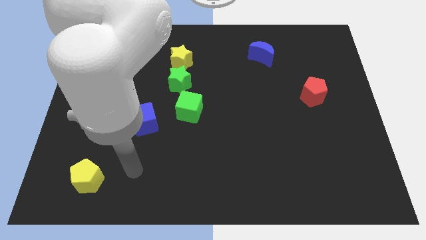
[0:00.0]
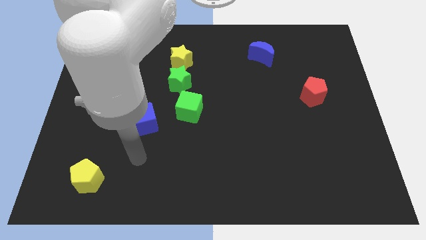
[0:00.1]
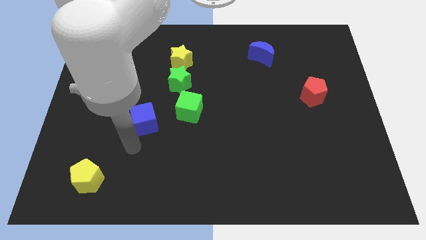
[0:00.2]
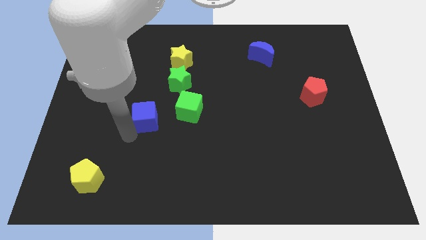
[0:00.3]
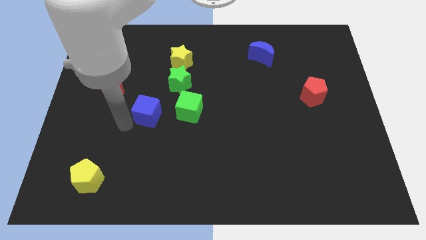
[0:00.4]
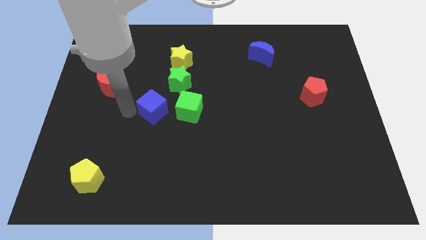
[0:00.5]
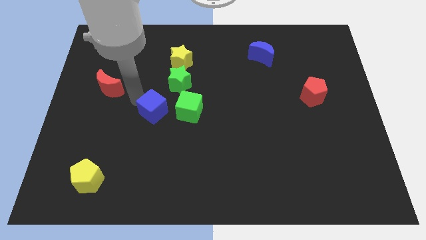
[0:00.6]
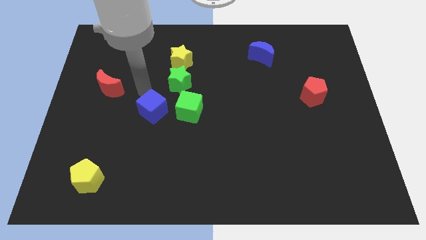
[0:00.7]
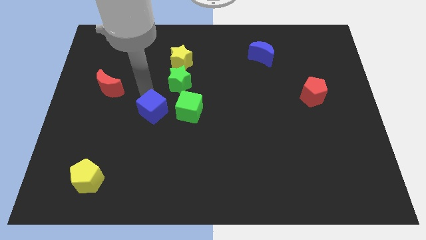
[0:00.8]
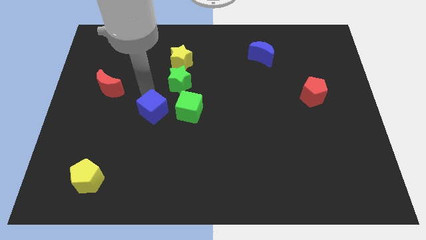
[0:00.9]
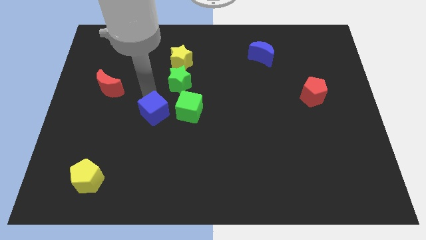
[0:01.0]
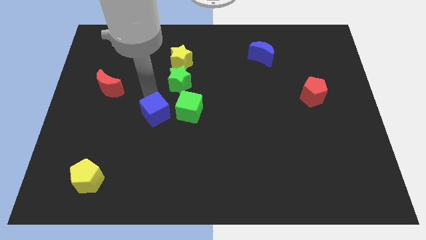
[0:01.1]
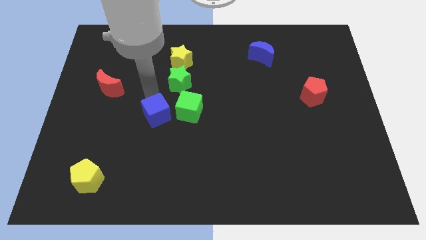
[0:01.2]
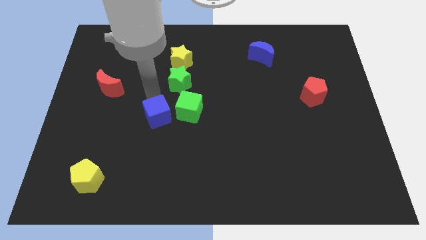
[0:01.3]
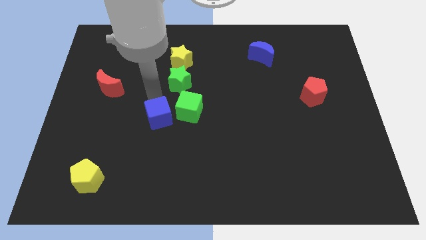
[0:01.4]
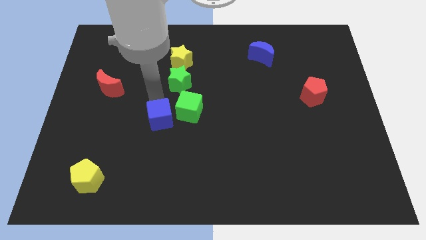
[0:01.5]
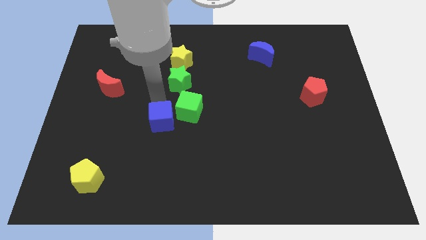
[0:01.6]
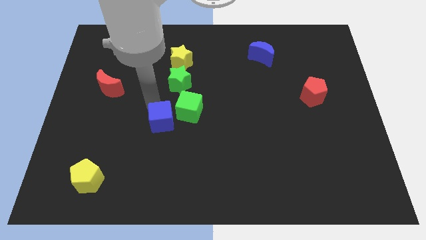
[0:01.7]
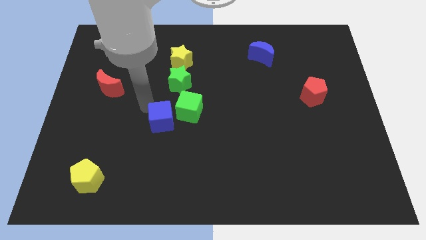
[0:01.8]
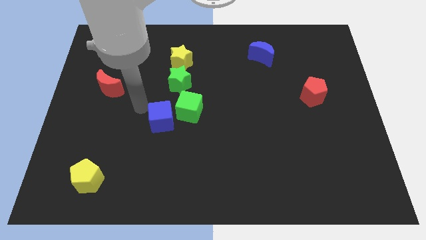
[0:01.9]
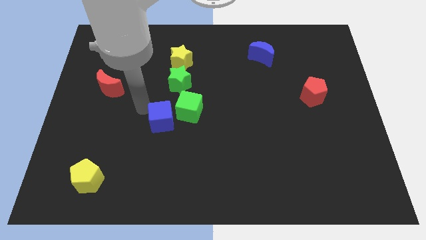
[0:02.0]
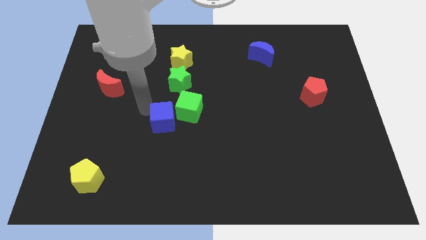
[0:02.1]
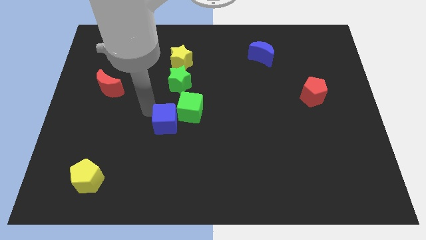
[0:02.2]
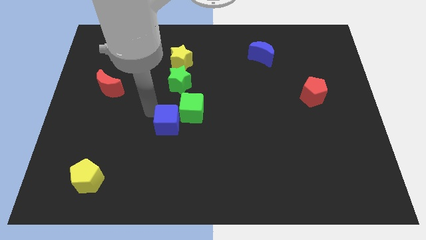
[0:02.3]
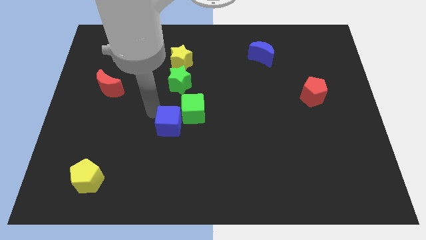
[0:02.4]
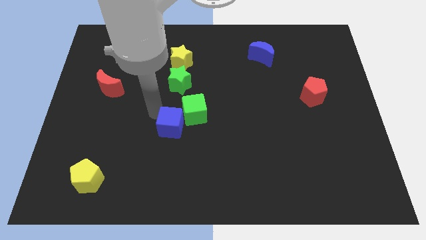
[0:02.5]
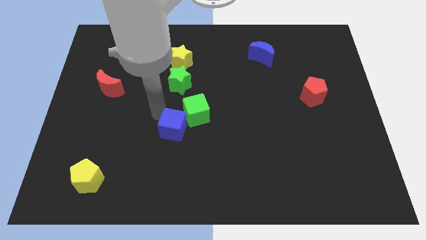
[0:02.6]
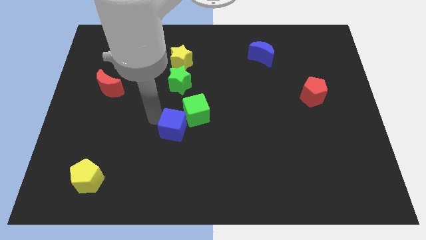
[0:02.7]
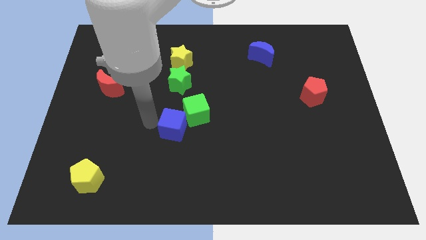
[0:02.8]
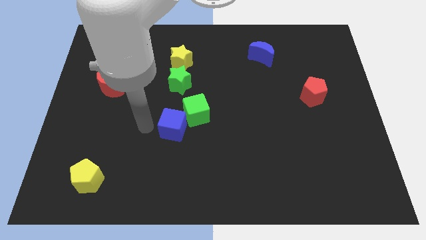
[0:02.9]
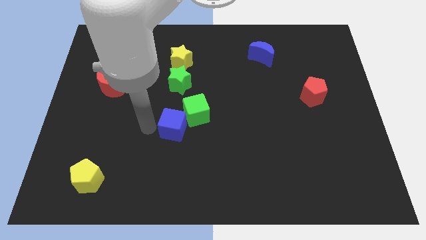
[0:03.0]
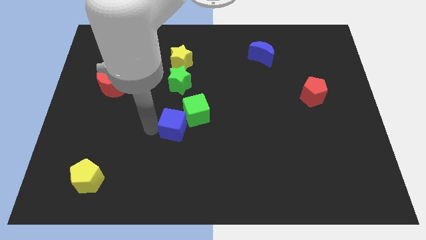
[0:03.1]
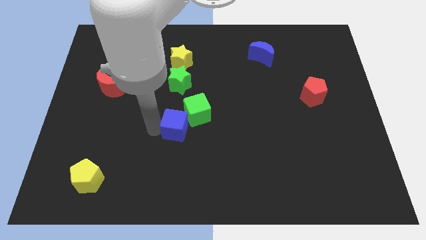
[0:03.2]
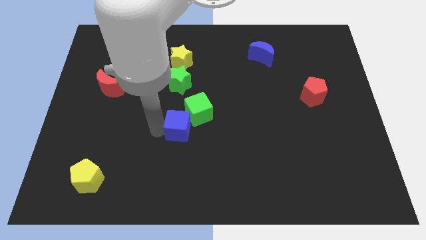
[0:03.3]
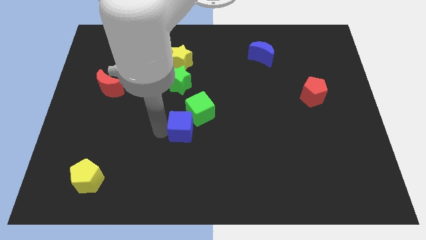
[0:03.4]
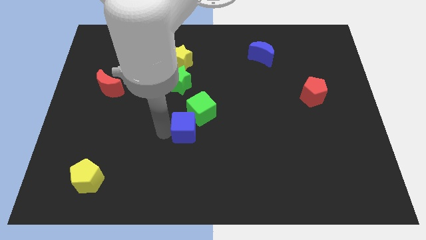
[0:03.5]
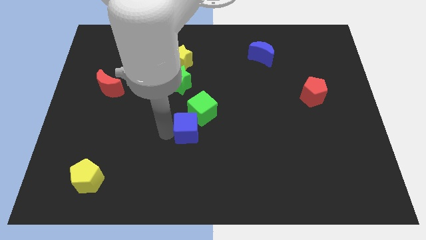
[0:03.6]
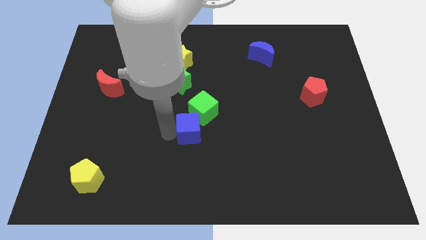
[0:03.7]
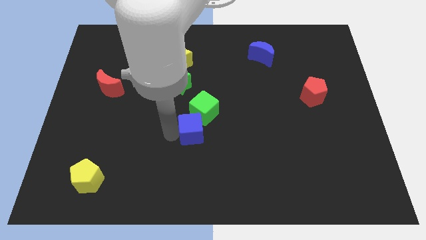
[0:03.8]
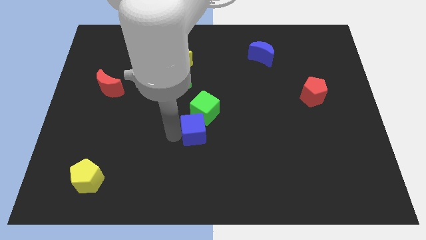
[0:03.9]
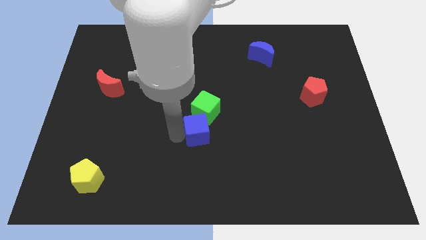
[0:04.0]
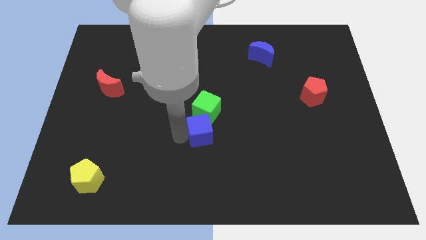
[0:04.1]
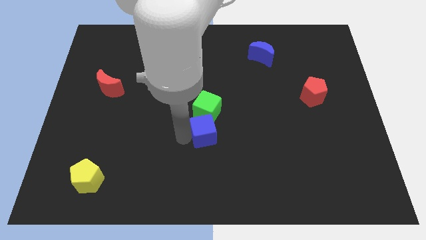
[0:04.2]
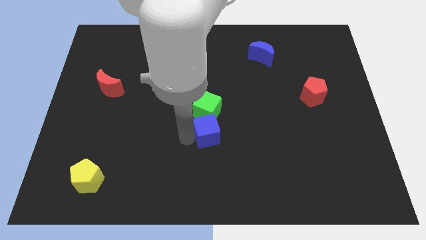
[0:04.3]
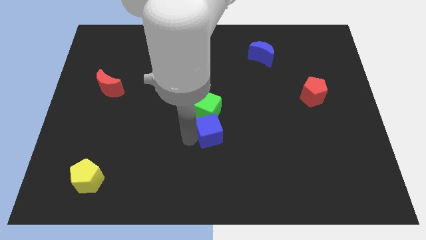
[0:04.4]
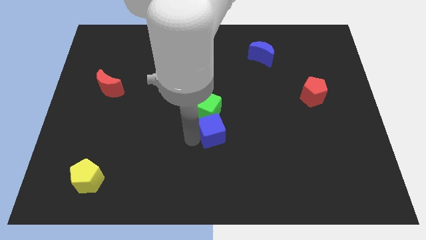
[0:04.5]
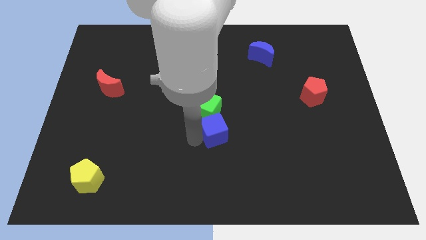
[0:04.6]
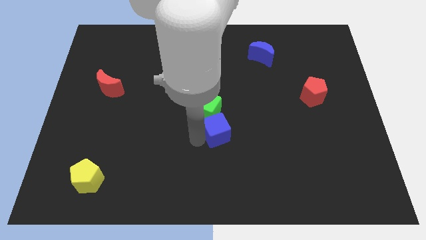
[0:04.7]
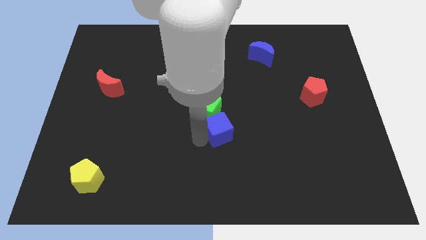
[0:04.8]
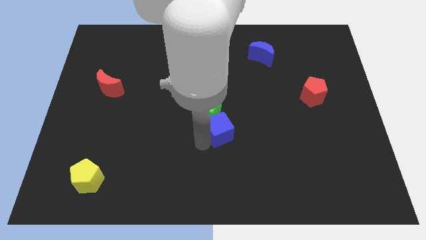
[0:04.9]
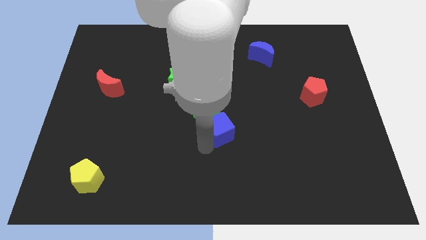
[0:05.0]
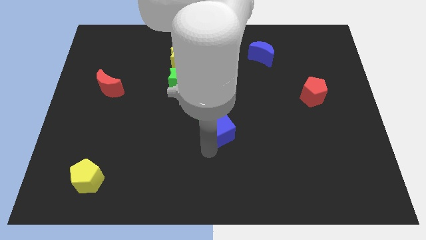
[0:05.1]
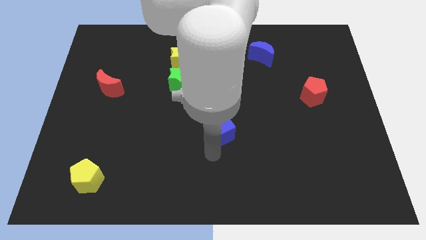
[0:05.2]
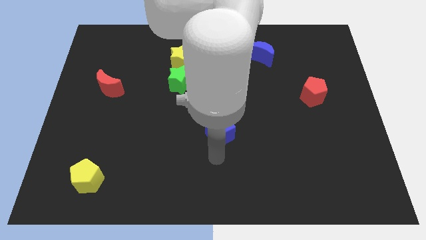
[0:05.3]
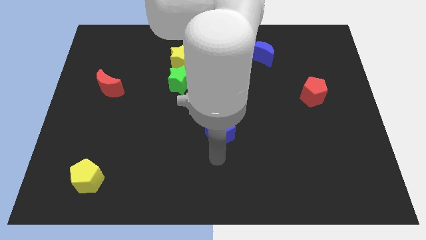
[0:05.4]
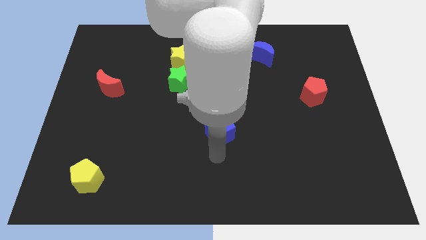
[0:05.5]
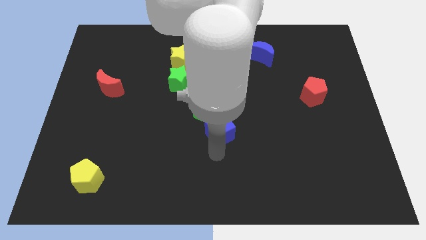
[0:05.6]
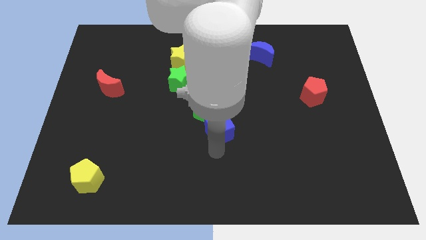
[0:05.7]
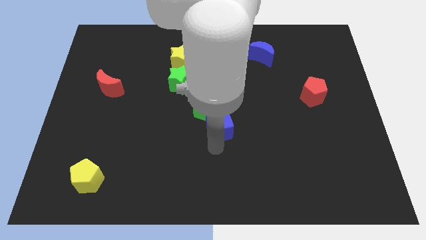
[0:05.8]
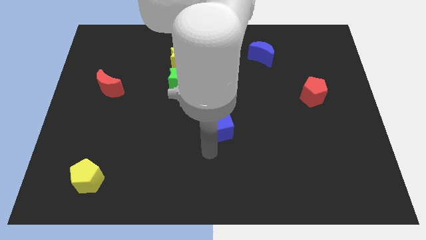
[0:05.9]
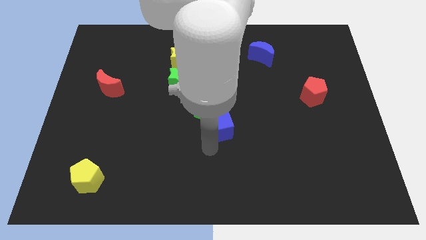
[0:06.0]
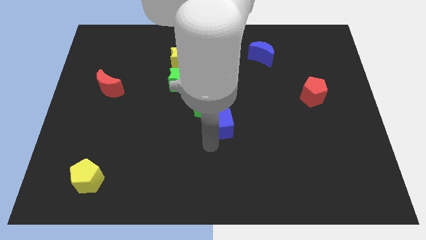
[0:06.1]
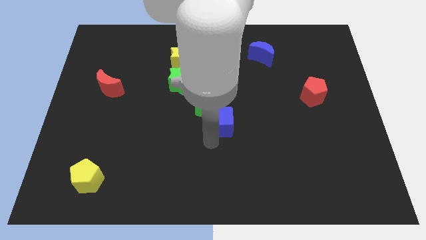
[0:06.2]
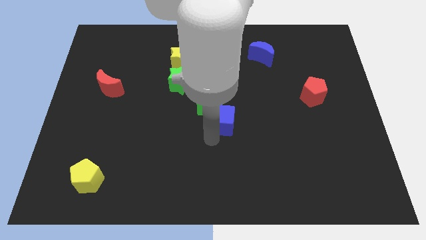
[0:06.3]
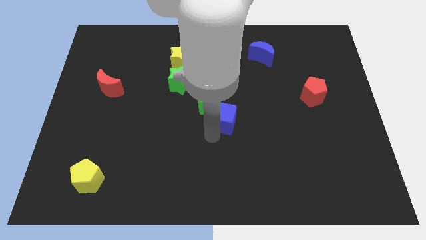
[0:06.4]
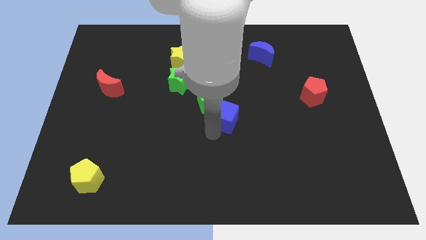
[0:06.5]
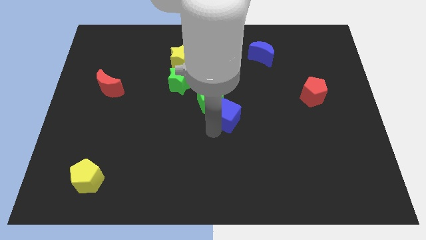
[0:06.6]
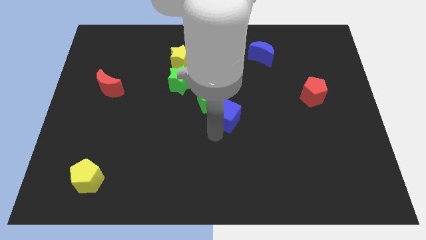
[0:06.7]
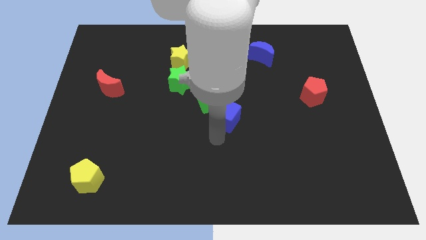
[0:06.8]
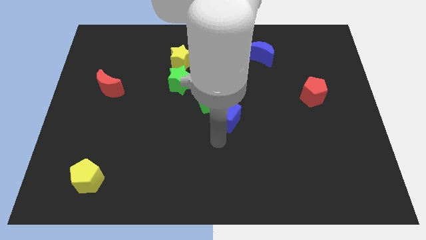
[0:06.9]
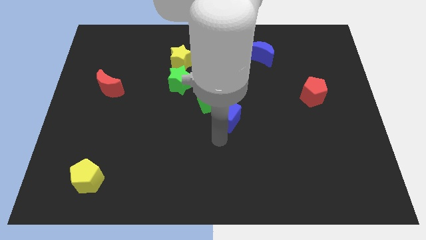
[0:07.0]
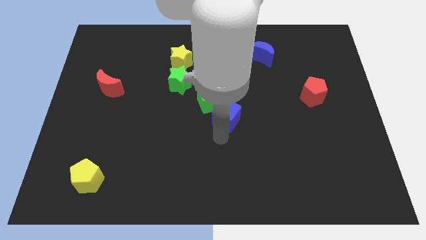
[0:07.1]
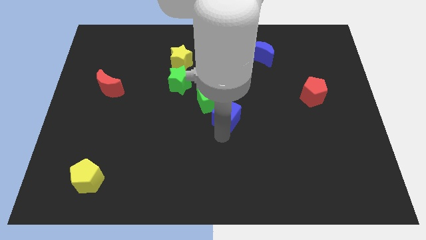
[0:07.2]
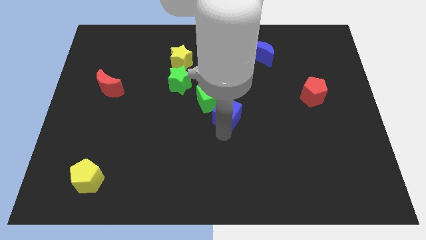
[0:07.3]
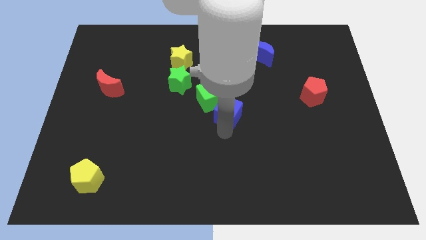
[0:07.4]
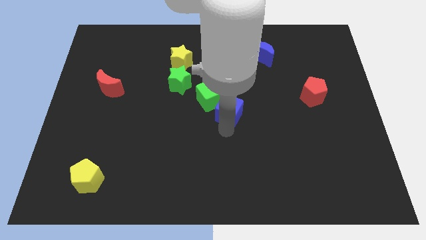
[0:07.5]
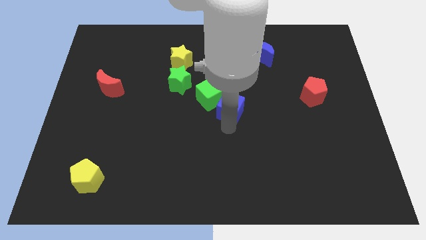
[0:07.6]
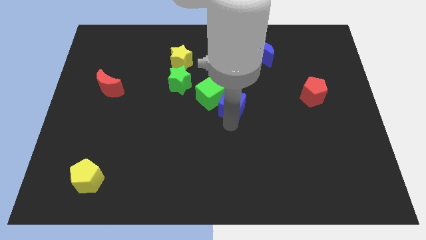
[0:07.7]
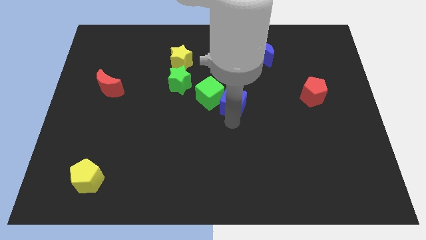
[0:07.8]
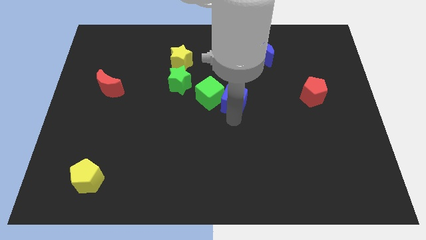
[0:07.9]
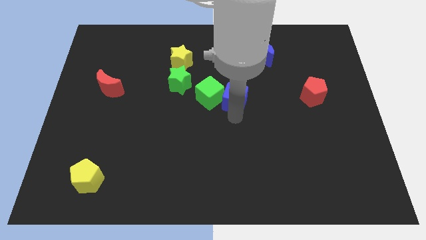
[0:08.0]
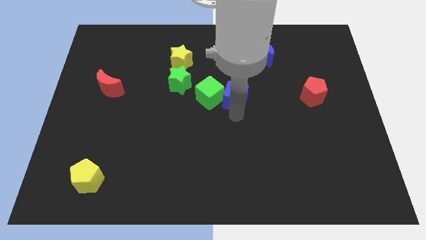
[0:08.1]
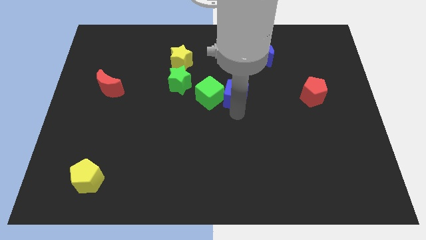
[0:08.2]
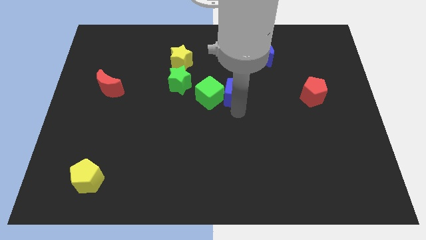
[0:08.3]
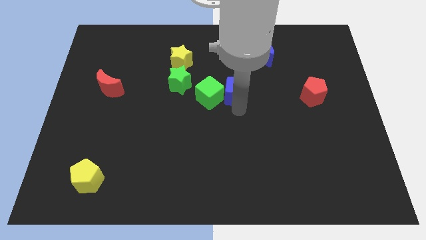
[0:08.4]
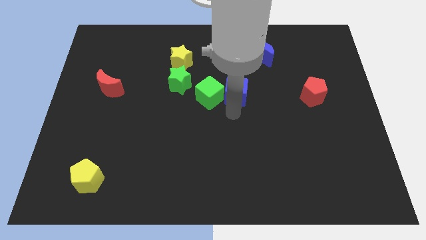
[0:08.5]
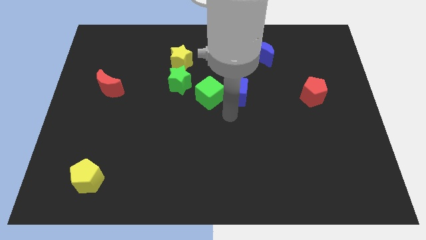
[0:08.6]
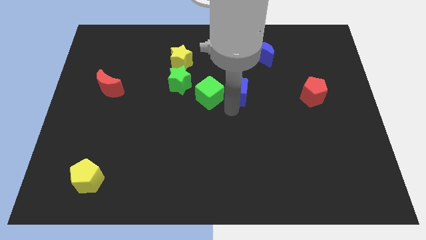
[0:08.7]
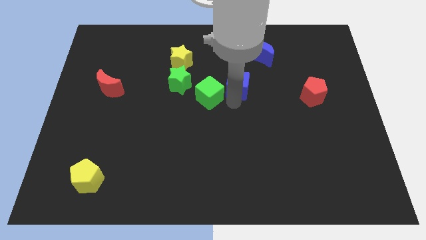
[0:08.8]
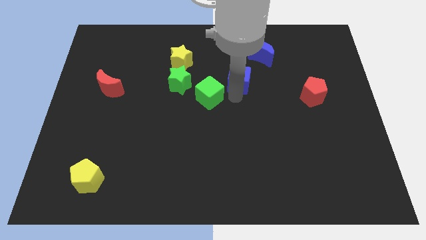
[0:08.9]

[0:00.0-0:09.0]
move the blue cube to the bottom left side of the blue moon
